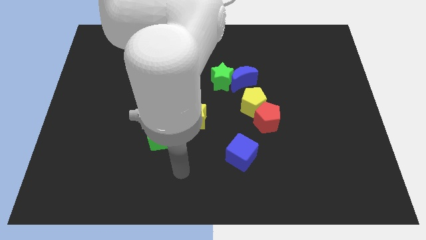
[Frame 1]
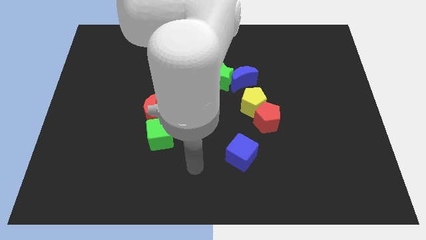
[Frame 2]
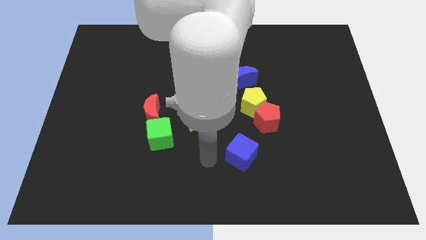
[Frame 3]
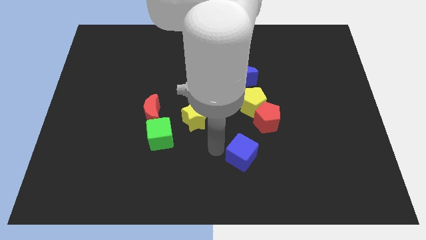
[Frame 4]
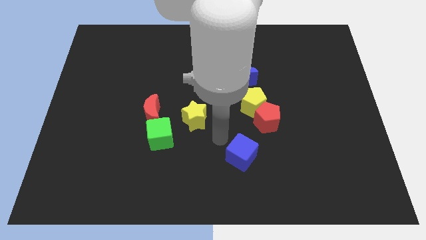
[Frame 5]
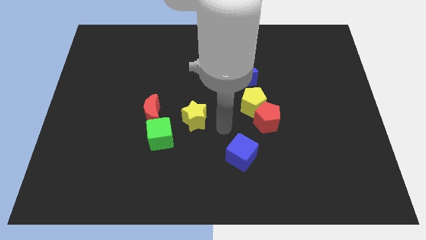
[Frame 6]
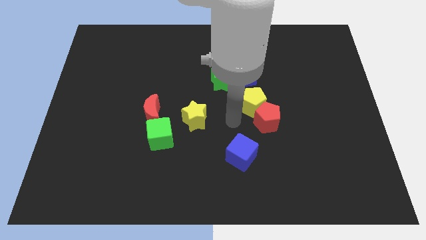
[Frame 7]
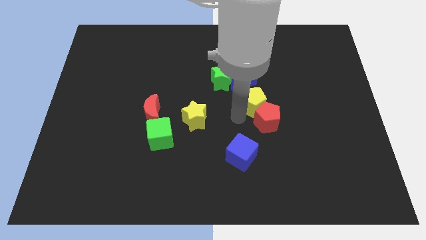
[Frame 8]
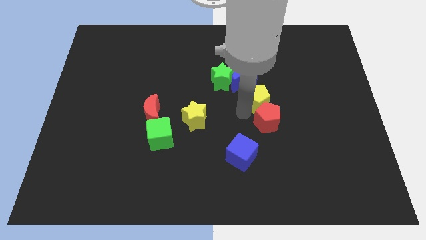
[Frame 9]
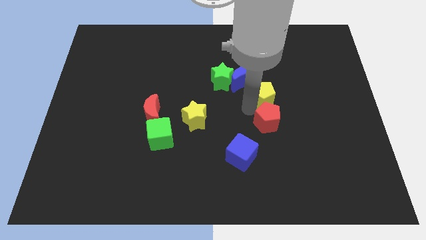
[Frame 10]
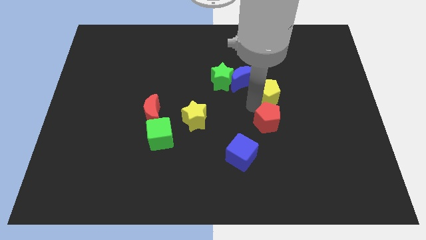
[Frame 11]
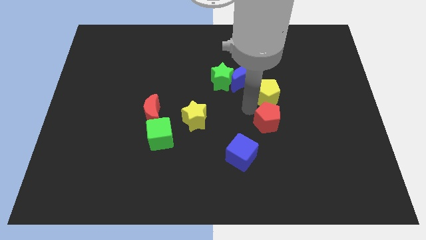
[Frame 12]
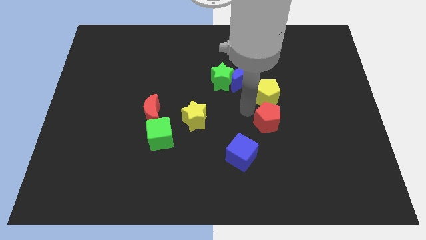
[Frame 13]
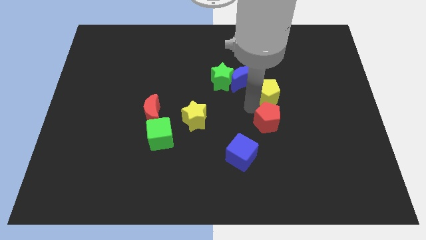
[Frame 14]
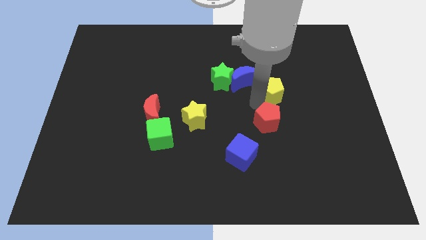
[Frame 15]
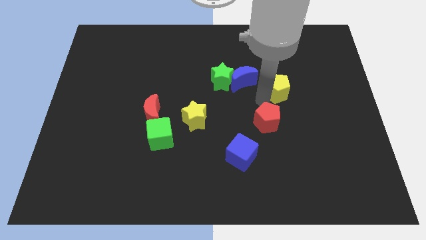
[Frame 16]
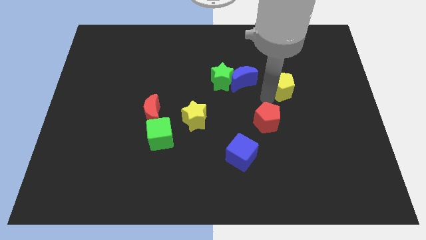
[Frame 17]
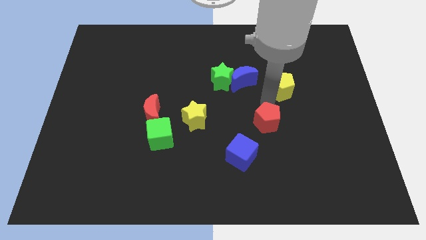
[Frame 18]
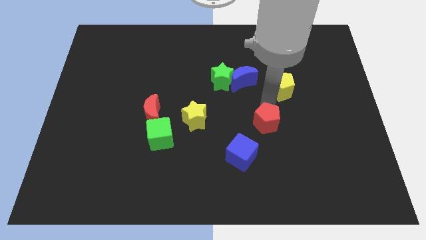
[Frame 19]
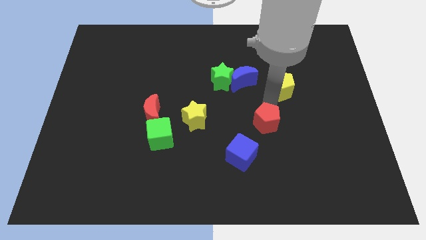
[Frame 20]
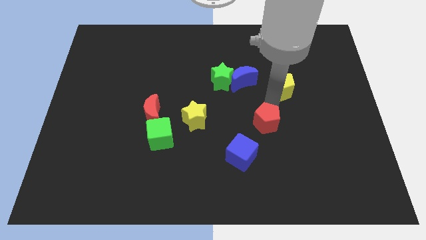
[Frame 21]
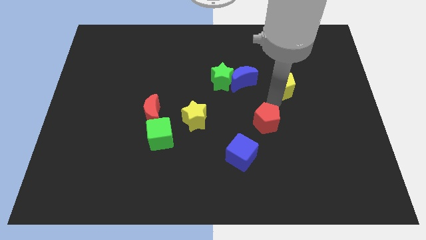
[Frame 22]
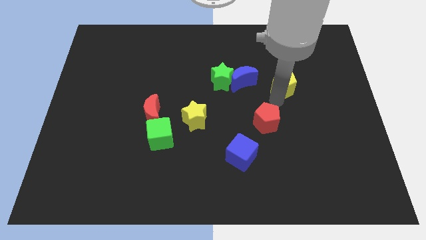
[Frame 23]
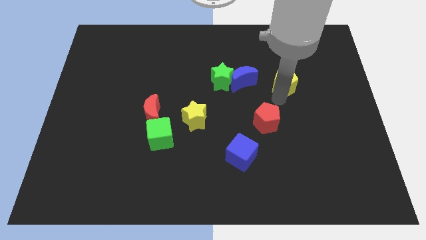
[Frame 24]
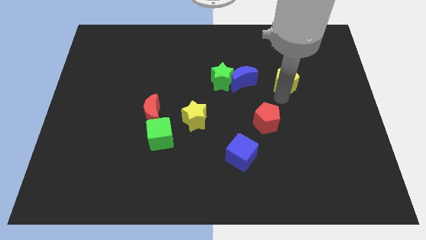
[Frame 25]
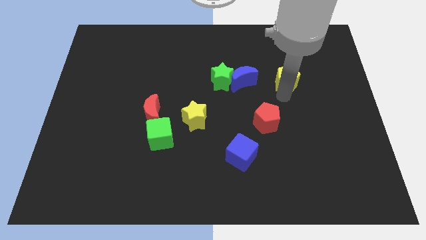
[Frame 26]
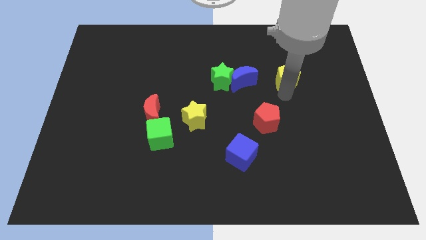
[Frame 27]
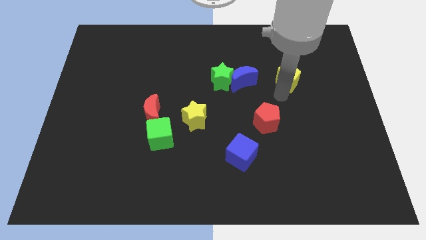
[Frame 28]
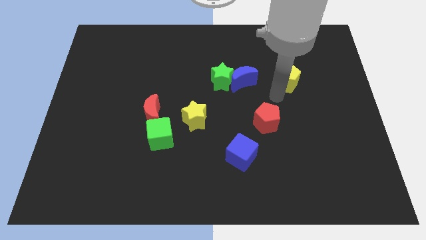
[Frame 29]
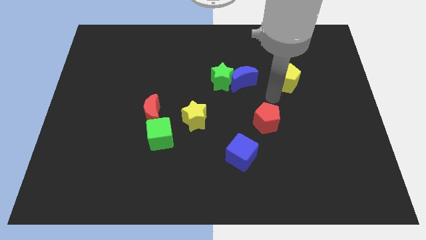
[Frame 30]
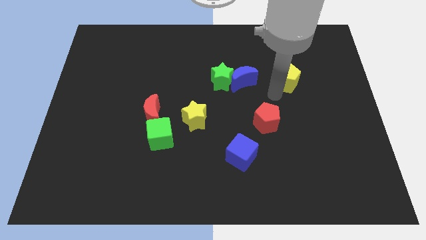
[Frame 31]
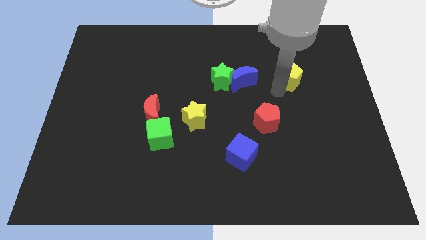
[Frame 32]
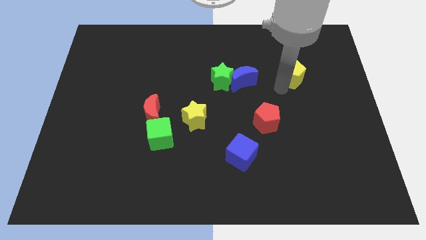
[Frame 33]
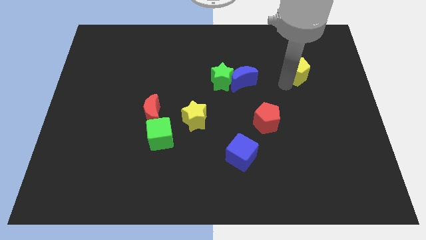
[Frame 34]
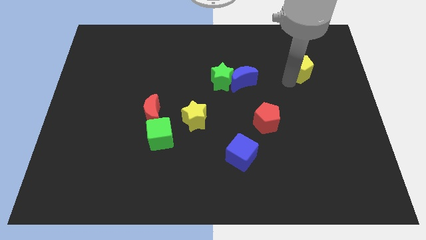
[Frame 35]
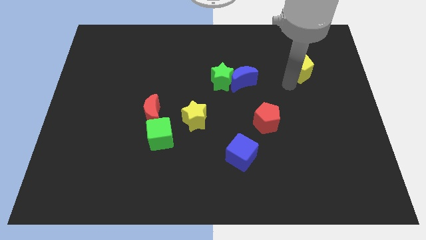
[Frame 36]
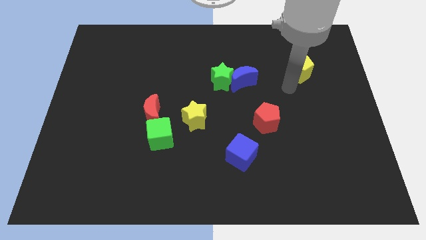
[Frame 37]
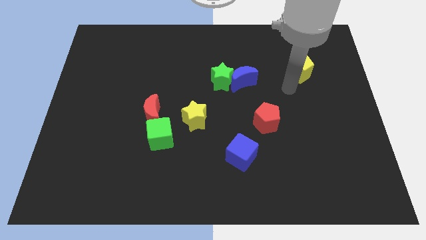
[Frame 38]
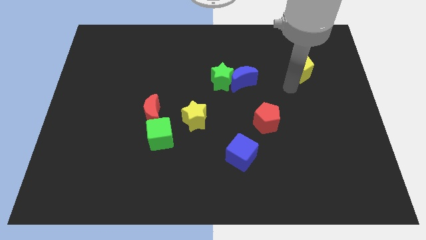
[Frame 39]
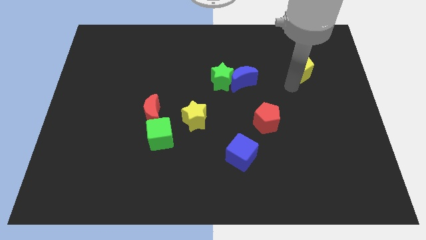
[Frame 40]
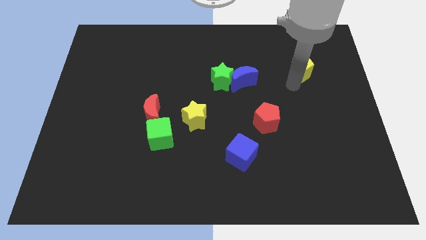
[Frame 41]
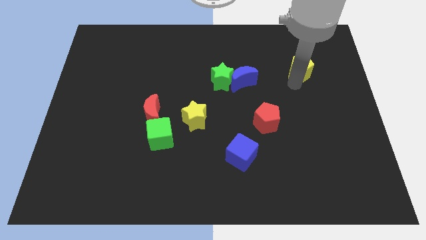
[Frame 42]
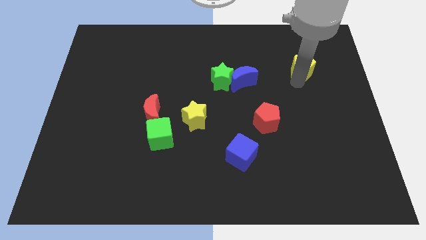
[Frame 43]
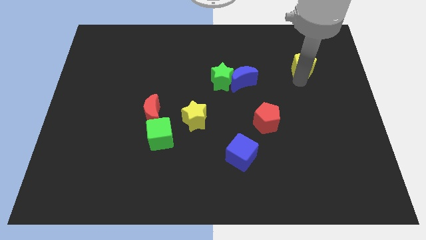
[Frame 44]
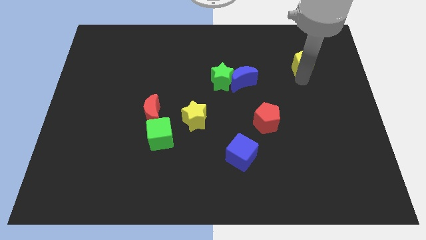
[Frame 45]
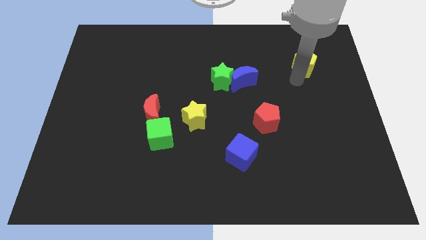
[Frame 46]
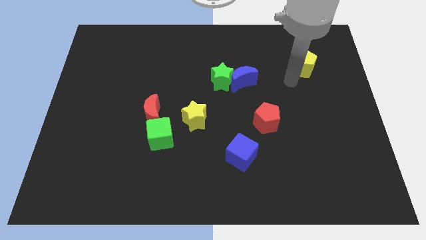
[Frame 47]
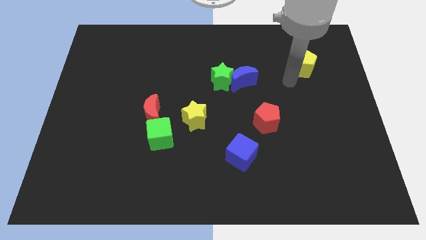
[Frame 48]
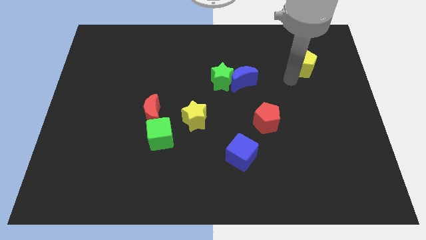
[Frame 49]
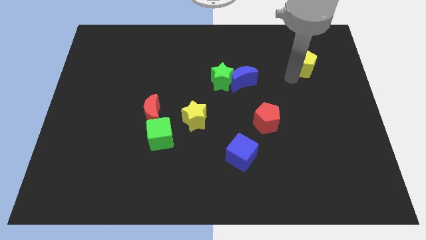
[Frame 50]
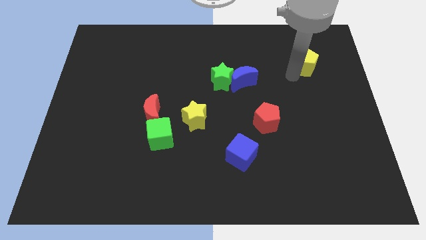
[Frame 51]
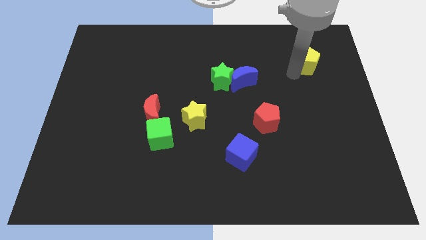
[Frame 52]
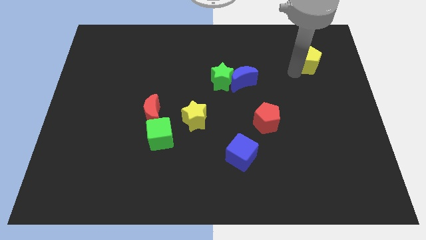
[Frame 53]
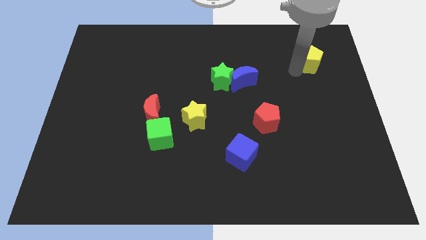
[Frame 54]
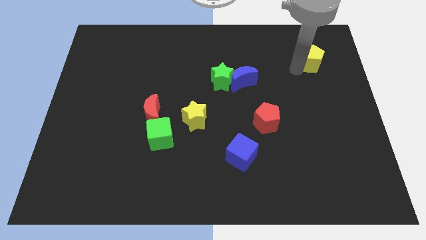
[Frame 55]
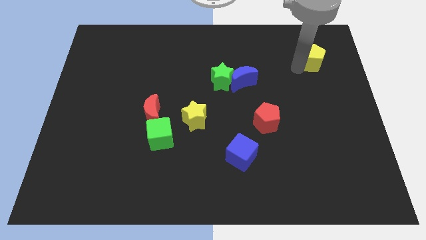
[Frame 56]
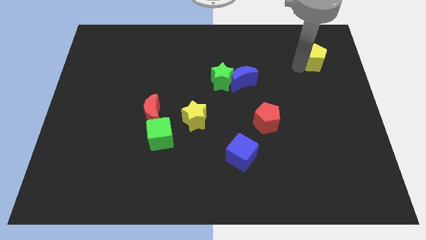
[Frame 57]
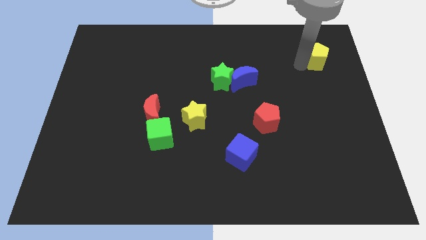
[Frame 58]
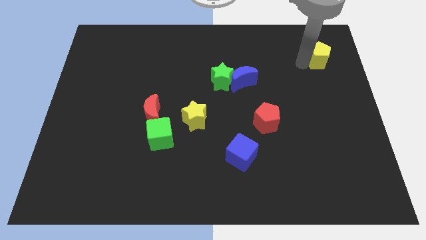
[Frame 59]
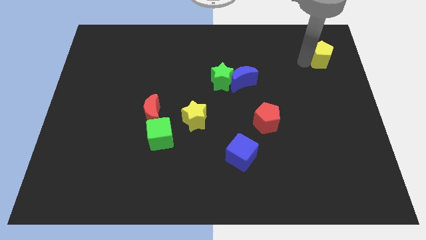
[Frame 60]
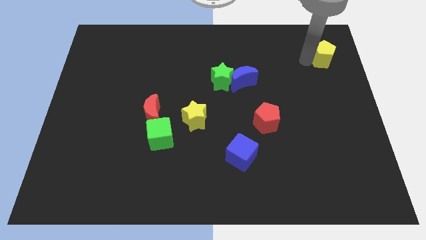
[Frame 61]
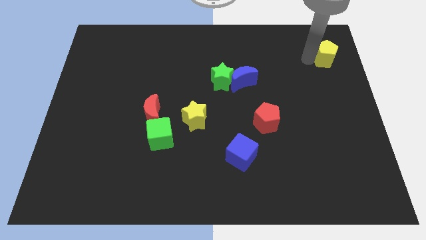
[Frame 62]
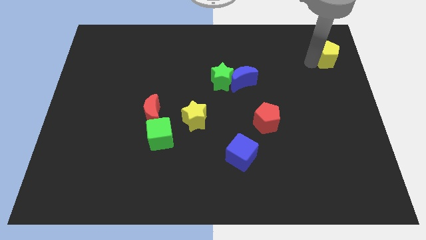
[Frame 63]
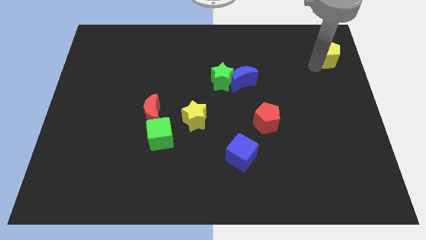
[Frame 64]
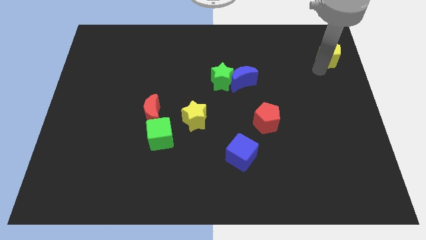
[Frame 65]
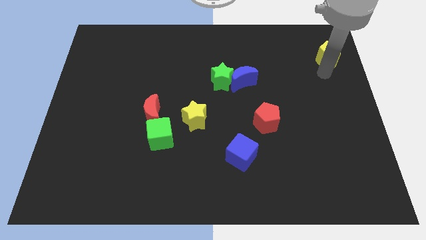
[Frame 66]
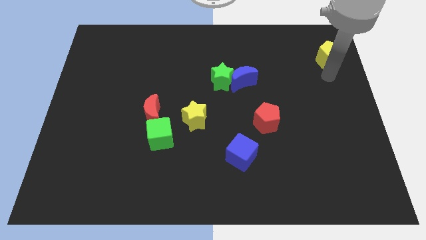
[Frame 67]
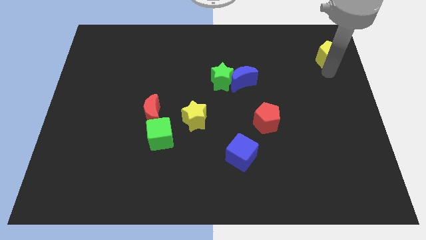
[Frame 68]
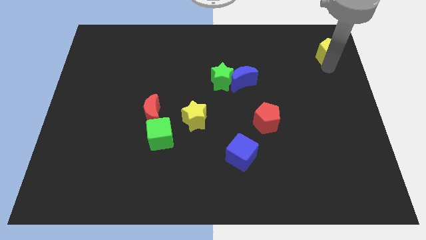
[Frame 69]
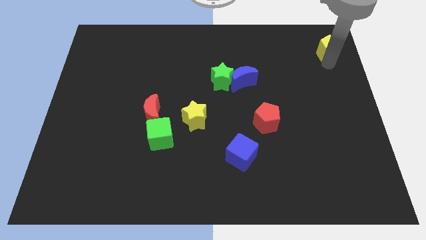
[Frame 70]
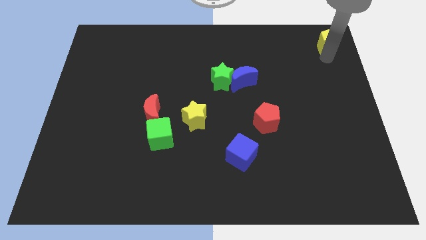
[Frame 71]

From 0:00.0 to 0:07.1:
slide the yellow pentagon to the top right
